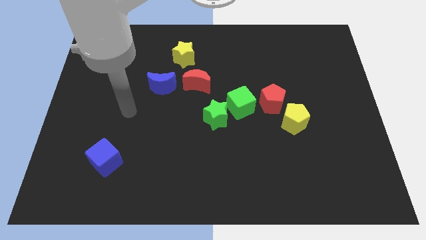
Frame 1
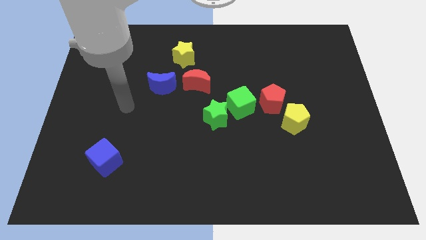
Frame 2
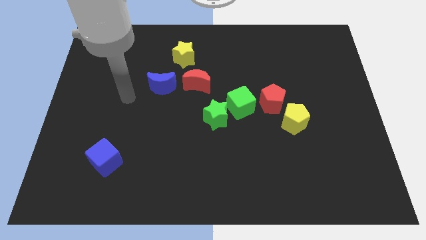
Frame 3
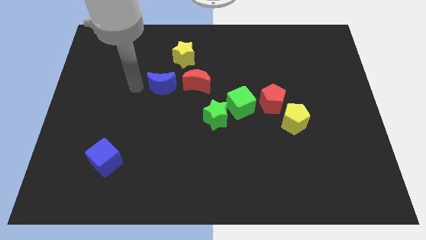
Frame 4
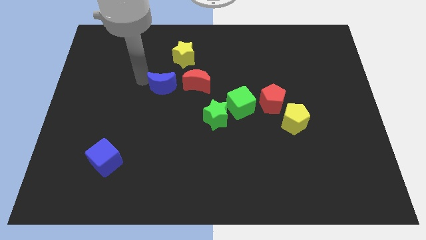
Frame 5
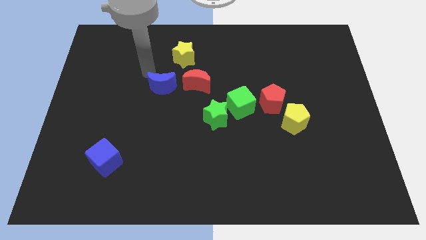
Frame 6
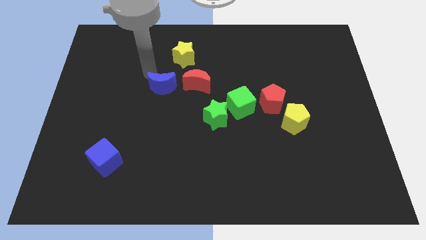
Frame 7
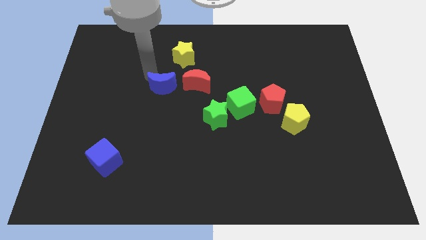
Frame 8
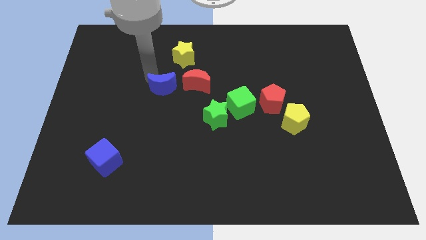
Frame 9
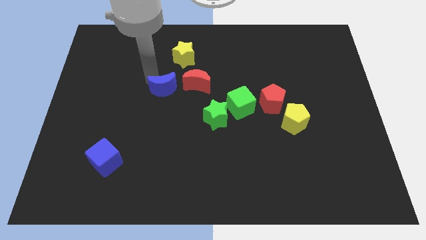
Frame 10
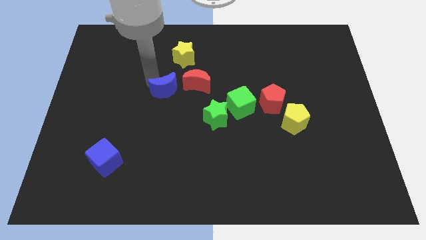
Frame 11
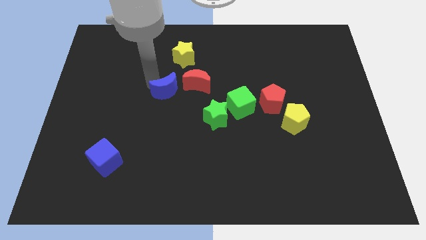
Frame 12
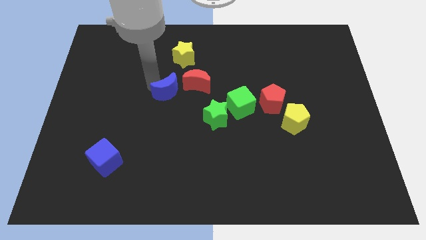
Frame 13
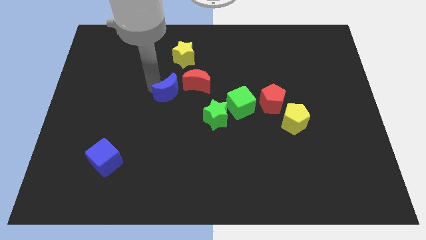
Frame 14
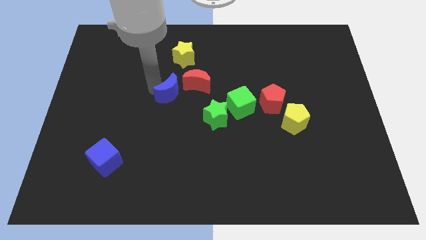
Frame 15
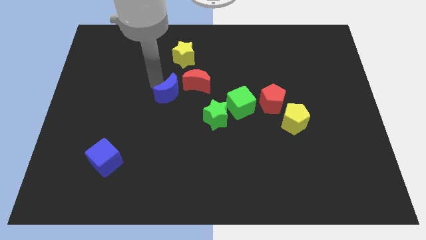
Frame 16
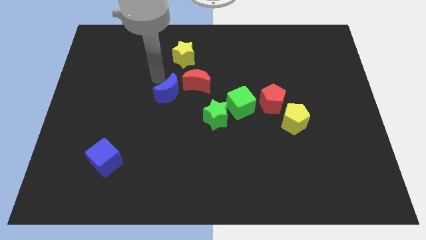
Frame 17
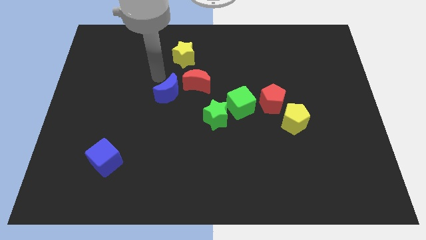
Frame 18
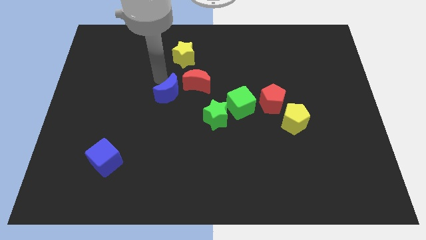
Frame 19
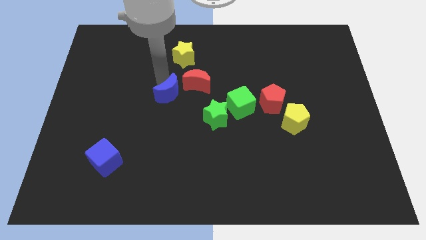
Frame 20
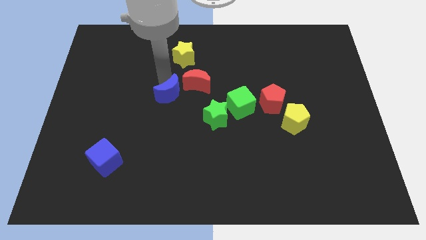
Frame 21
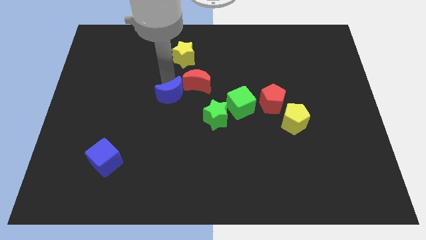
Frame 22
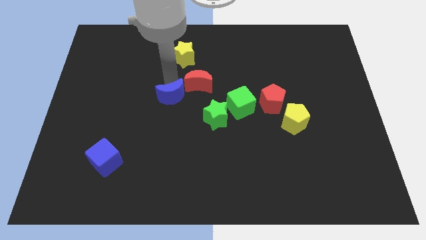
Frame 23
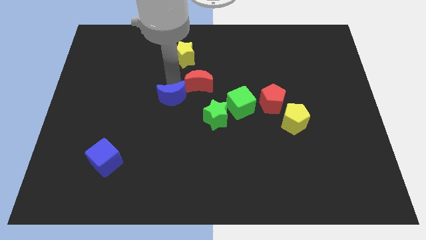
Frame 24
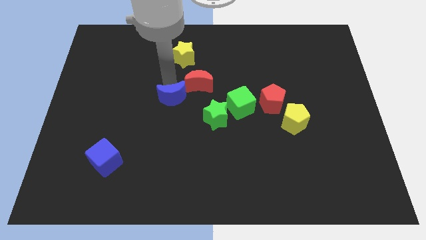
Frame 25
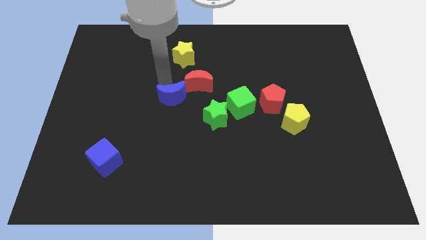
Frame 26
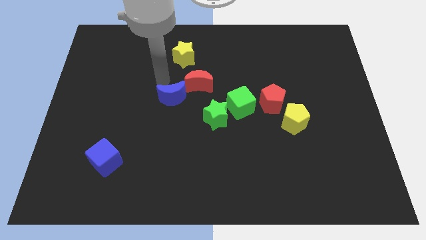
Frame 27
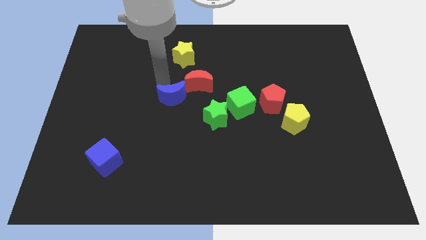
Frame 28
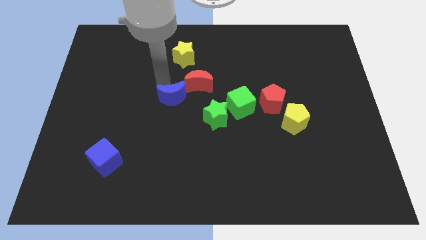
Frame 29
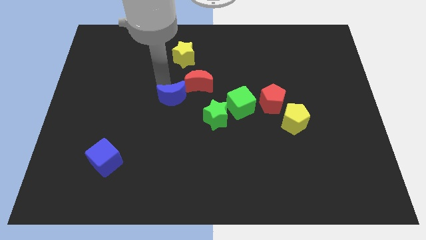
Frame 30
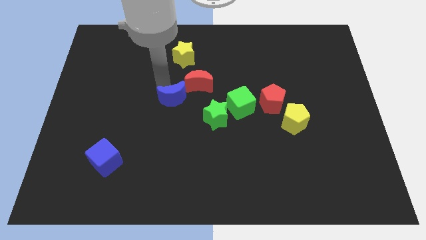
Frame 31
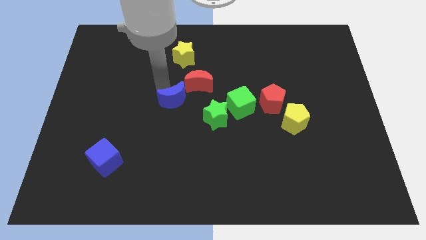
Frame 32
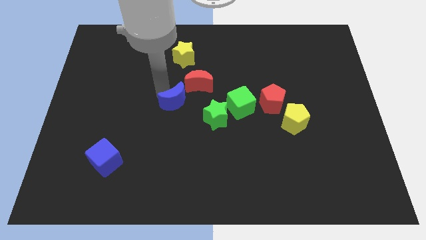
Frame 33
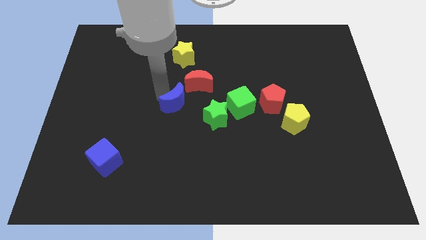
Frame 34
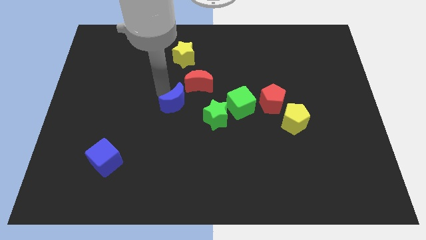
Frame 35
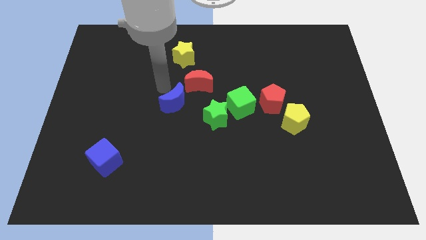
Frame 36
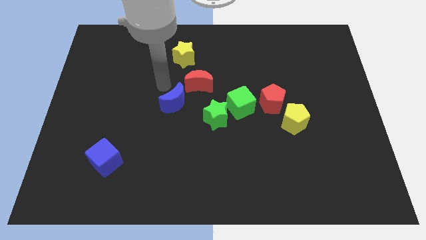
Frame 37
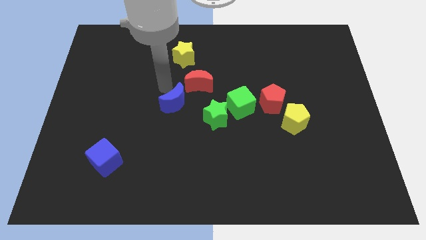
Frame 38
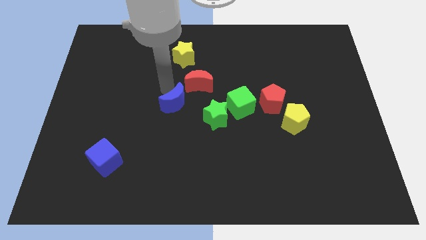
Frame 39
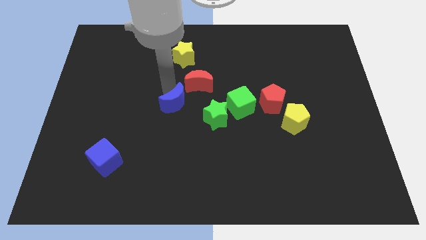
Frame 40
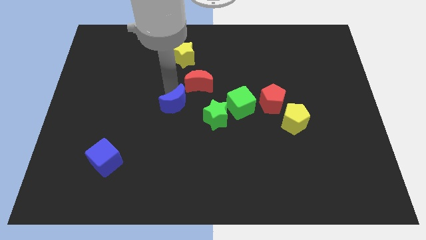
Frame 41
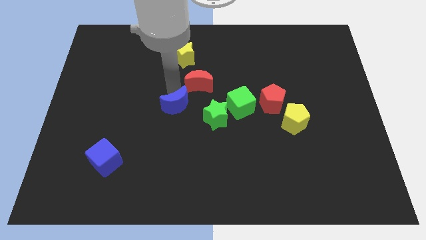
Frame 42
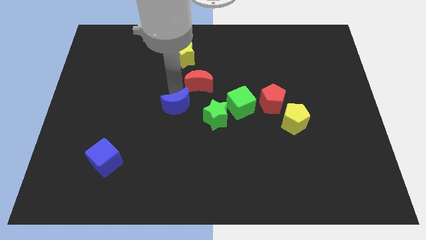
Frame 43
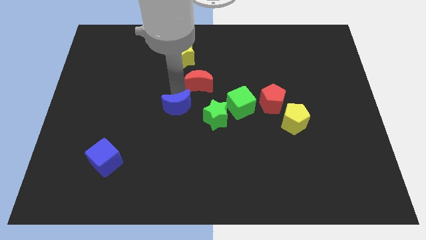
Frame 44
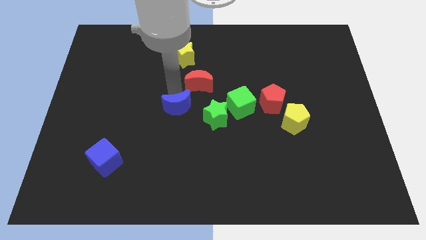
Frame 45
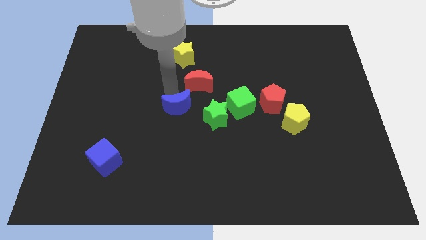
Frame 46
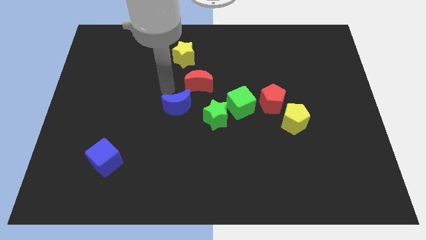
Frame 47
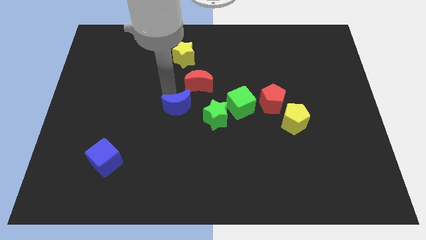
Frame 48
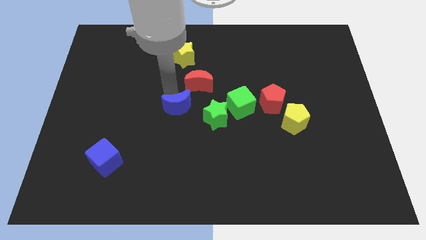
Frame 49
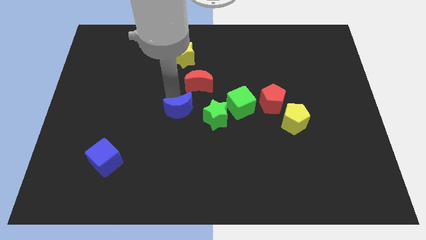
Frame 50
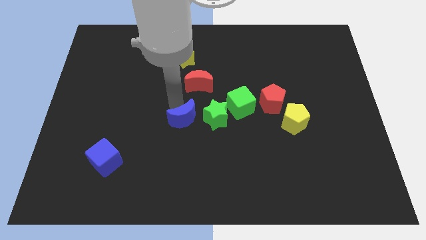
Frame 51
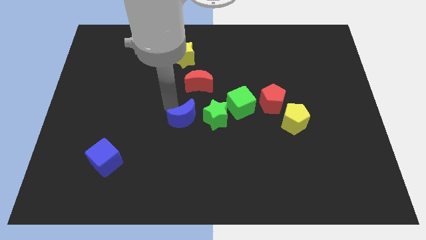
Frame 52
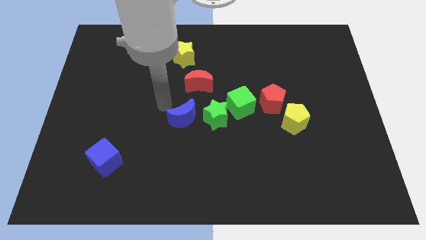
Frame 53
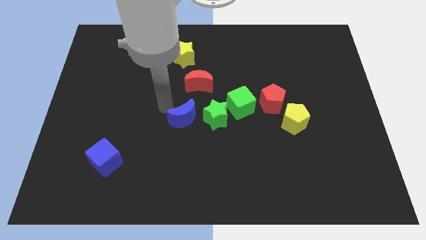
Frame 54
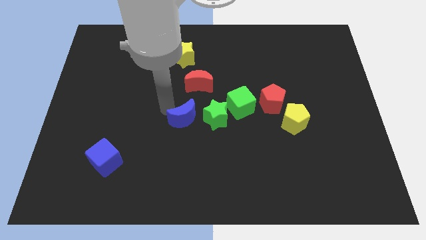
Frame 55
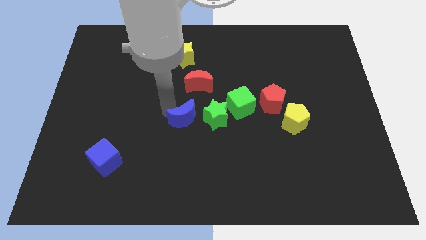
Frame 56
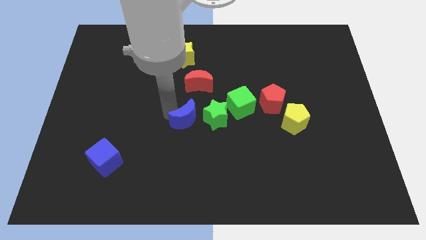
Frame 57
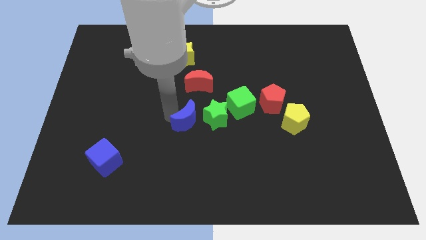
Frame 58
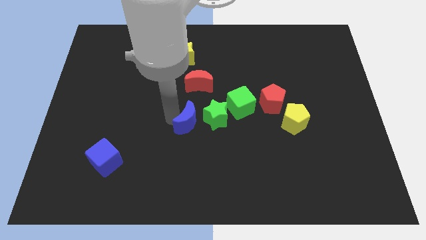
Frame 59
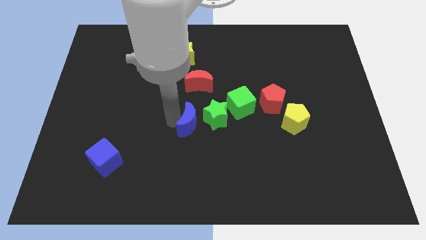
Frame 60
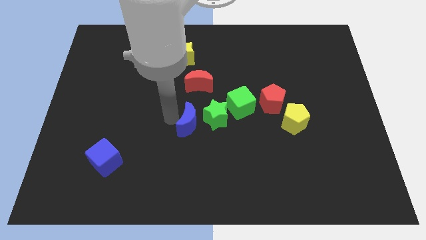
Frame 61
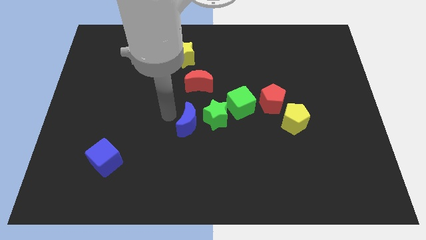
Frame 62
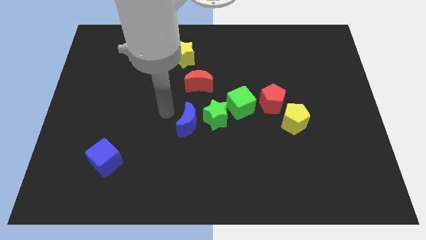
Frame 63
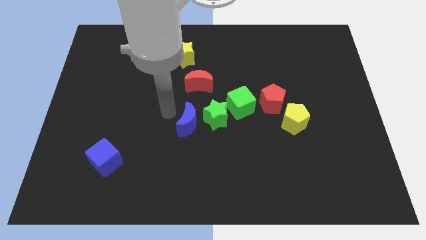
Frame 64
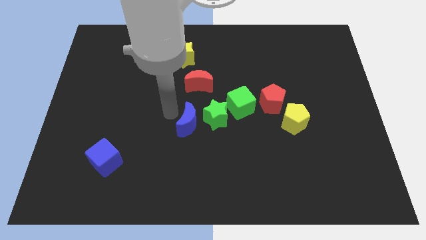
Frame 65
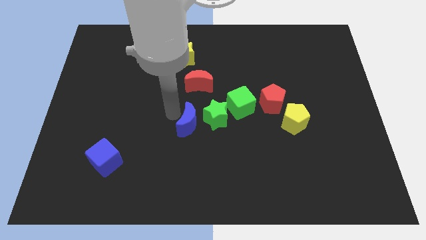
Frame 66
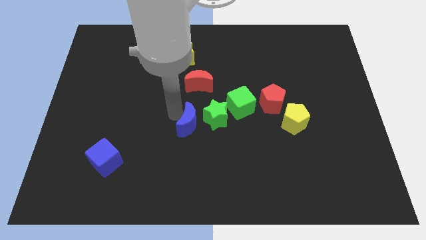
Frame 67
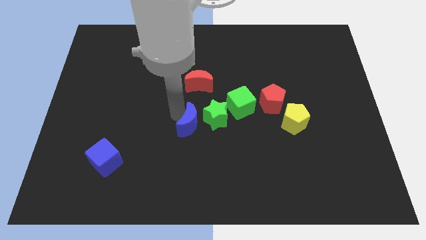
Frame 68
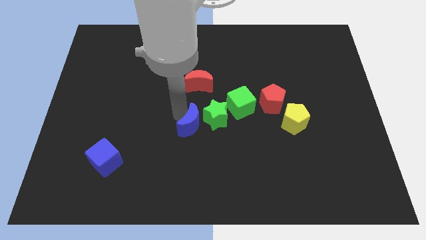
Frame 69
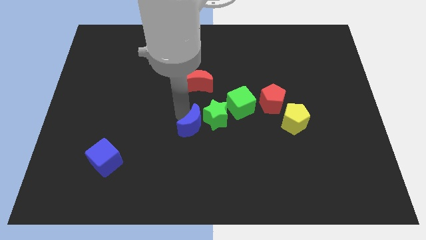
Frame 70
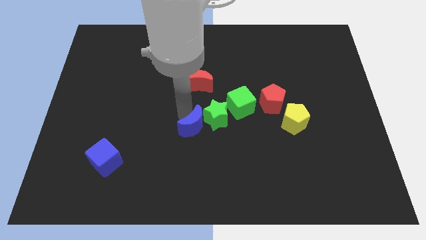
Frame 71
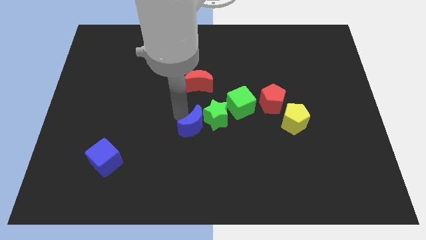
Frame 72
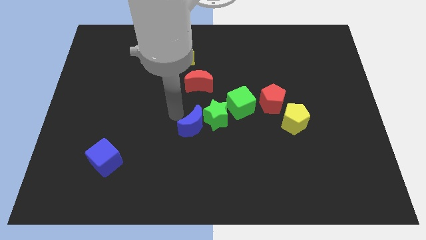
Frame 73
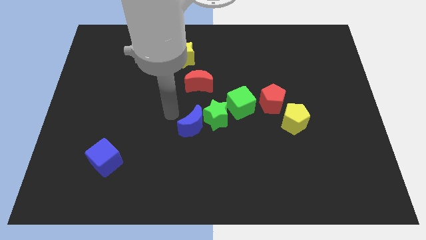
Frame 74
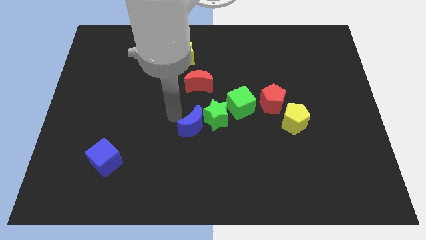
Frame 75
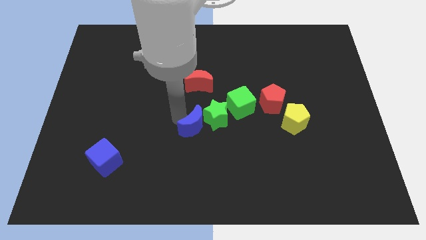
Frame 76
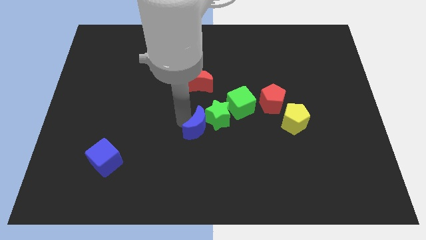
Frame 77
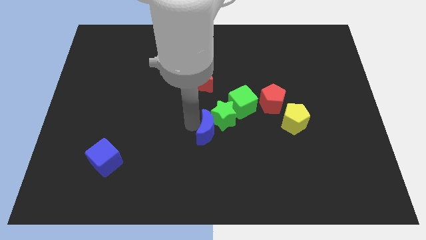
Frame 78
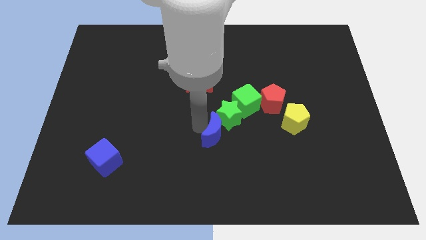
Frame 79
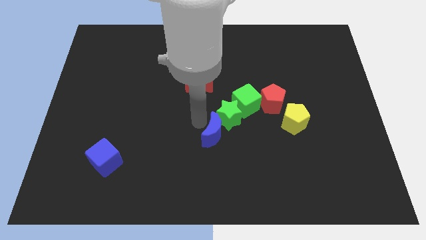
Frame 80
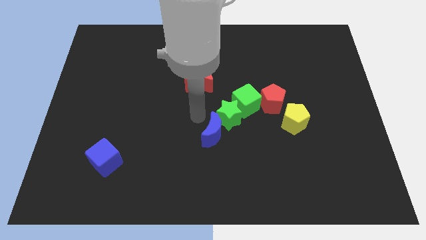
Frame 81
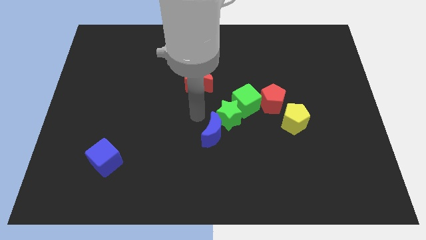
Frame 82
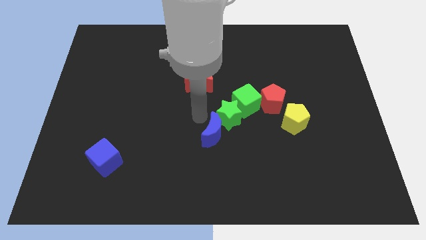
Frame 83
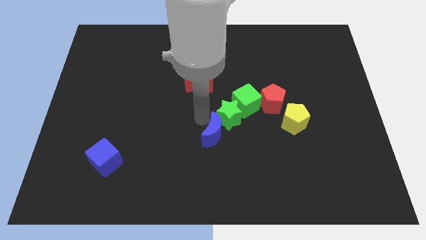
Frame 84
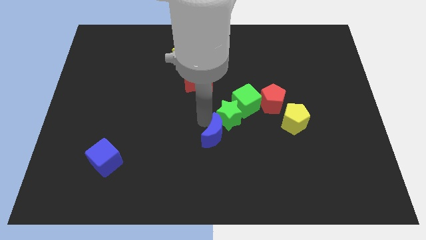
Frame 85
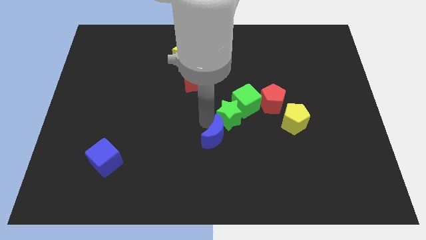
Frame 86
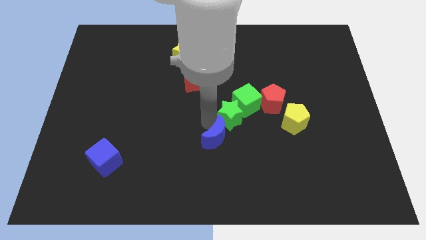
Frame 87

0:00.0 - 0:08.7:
push the blue moon diagonally down and right
